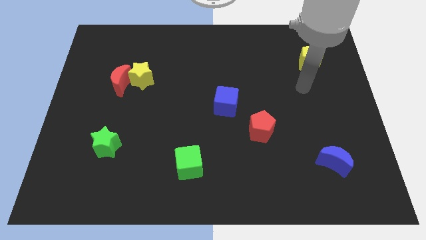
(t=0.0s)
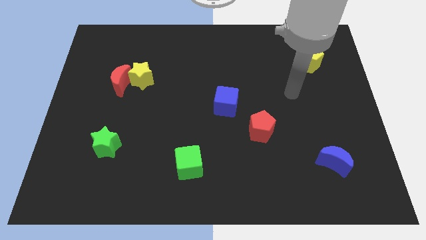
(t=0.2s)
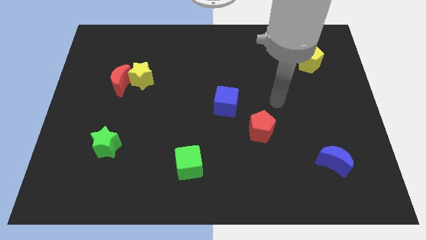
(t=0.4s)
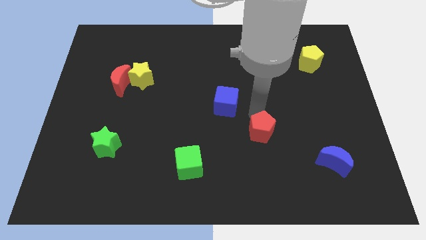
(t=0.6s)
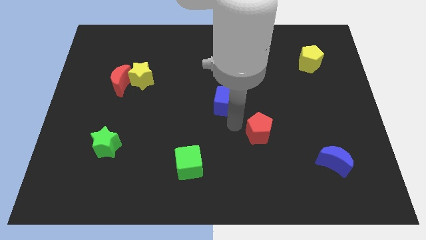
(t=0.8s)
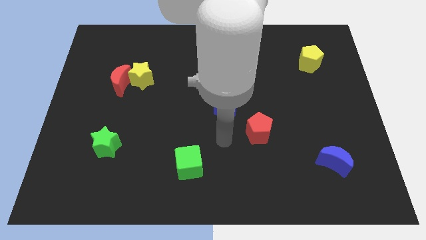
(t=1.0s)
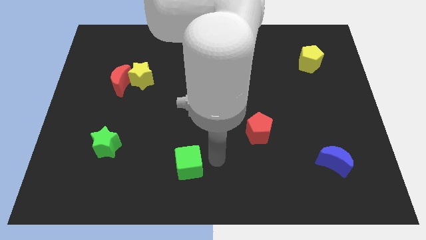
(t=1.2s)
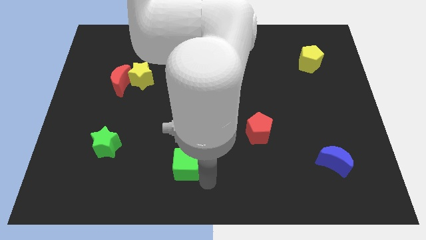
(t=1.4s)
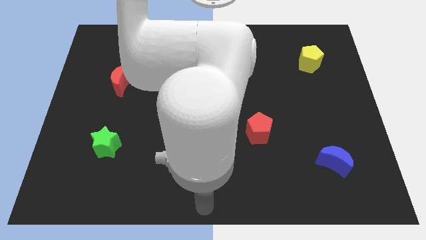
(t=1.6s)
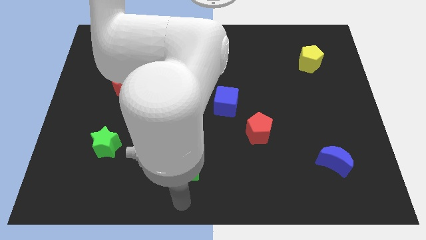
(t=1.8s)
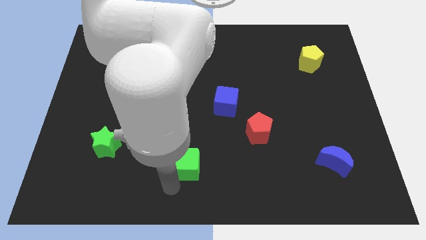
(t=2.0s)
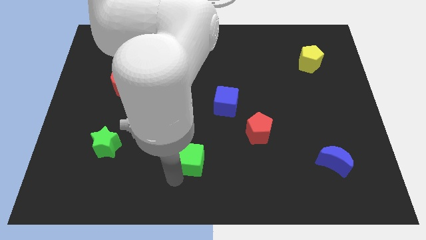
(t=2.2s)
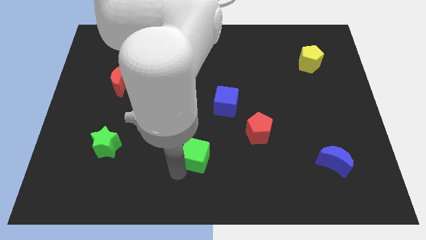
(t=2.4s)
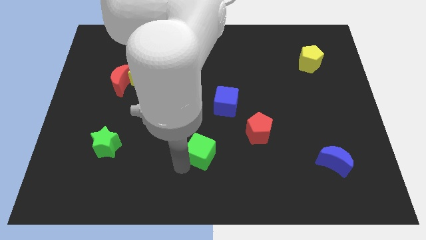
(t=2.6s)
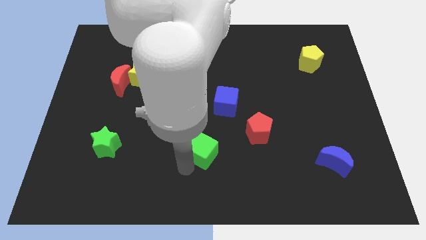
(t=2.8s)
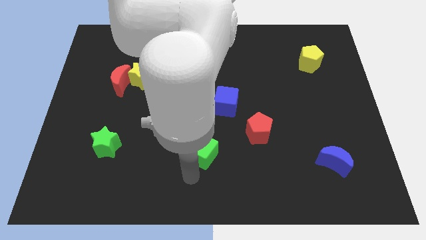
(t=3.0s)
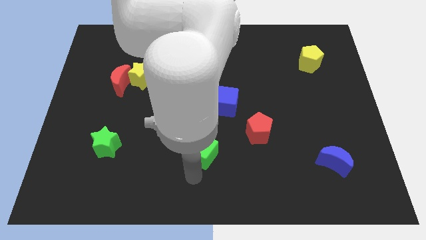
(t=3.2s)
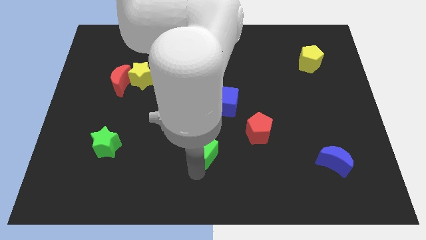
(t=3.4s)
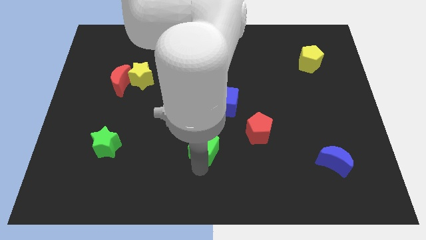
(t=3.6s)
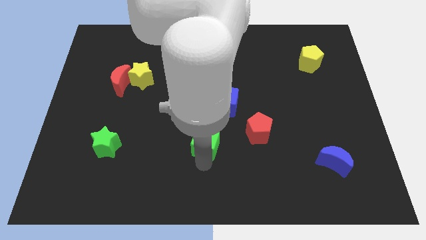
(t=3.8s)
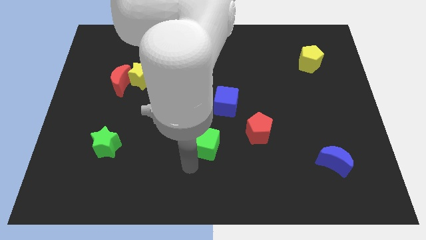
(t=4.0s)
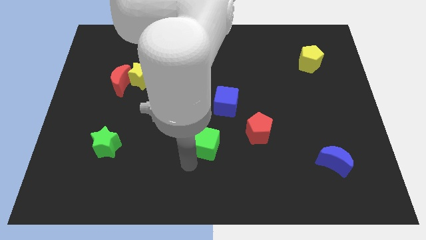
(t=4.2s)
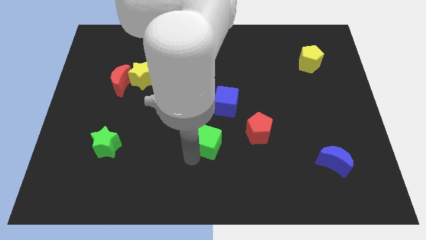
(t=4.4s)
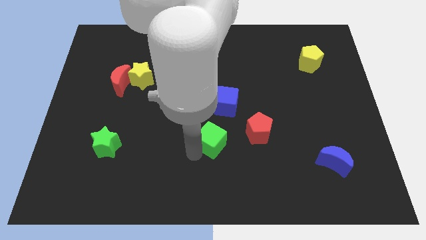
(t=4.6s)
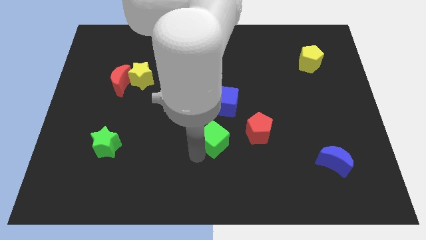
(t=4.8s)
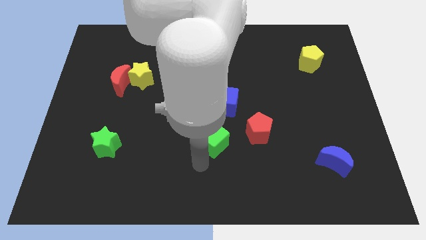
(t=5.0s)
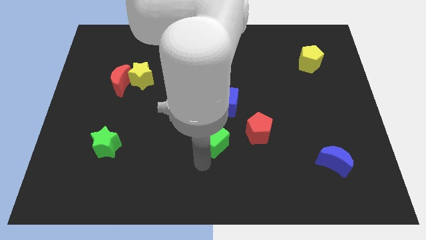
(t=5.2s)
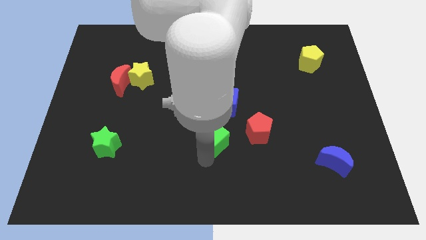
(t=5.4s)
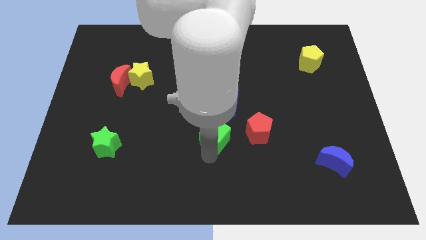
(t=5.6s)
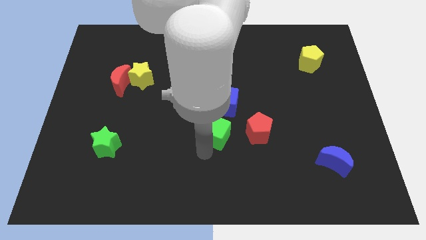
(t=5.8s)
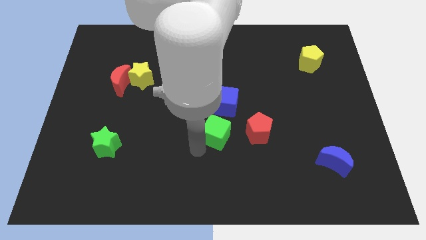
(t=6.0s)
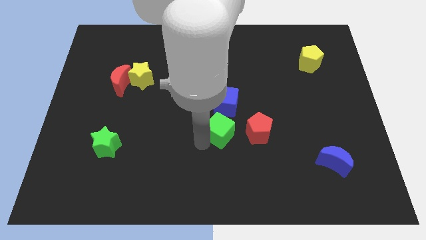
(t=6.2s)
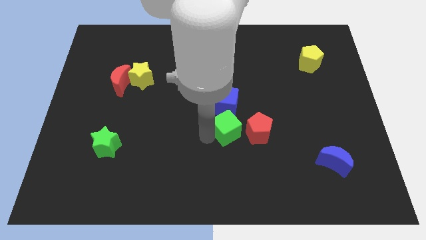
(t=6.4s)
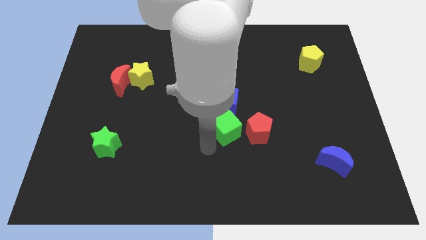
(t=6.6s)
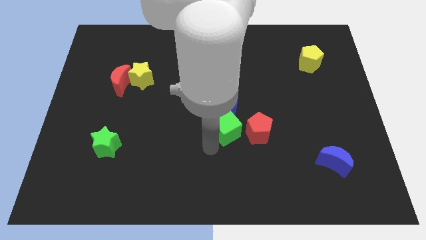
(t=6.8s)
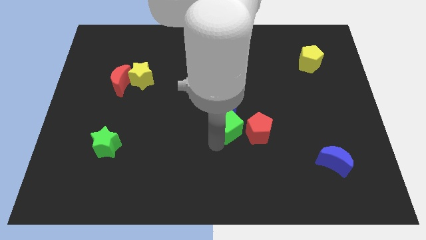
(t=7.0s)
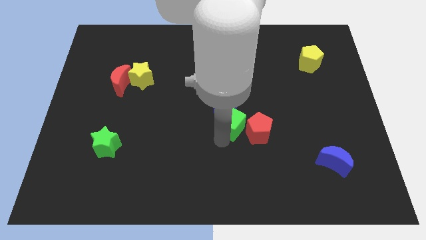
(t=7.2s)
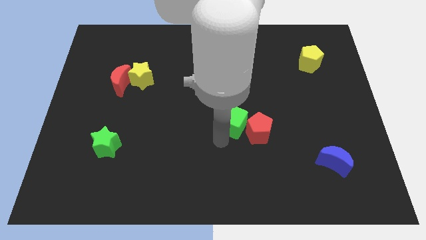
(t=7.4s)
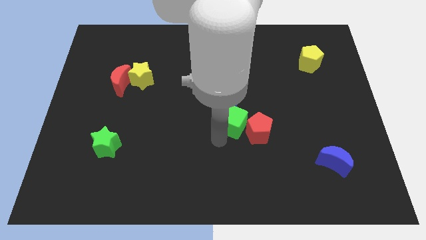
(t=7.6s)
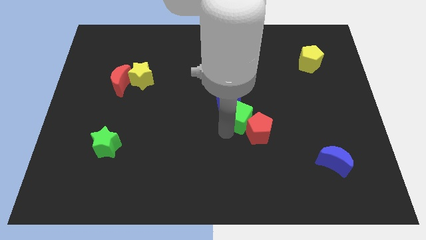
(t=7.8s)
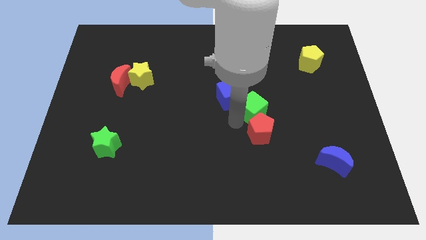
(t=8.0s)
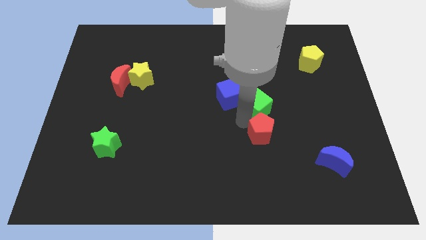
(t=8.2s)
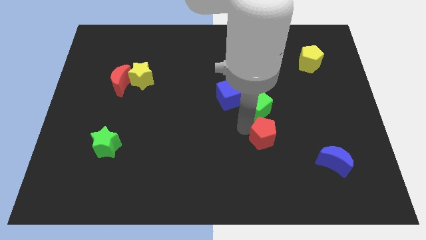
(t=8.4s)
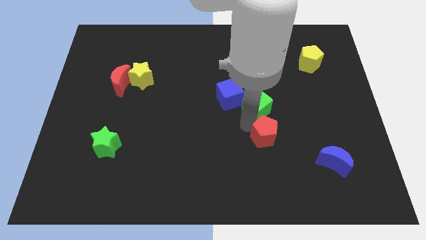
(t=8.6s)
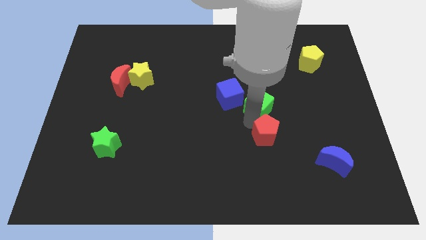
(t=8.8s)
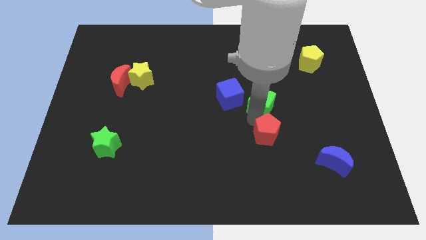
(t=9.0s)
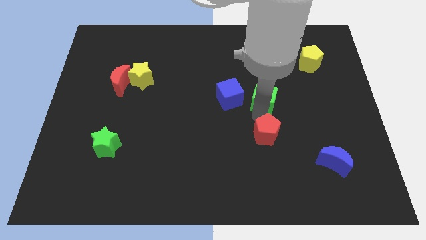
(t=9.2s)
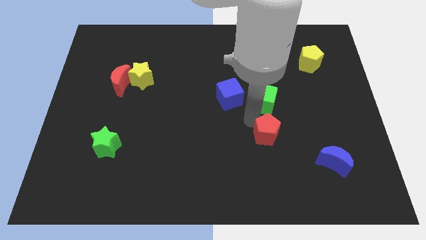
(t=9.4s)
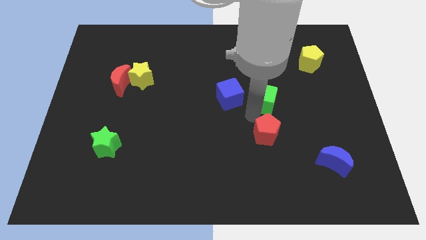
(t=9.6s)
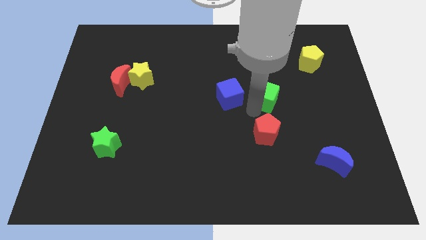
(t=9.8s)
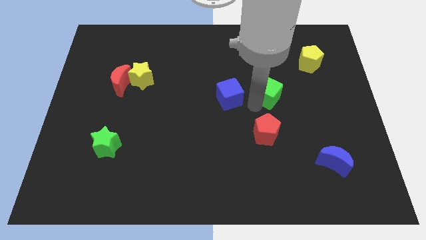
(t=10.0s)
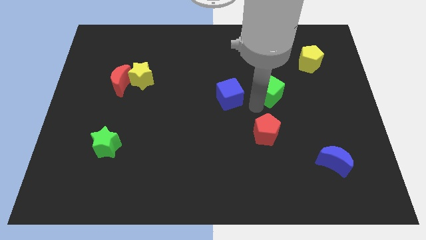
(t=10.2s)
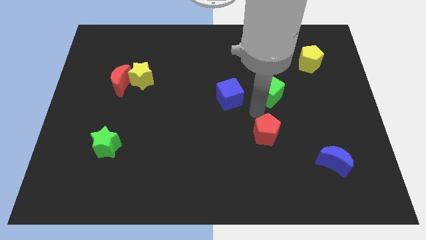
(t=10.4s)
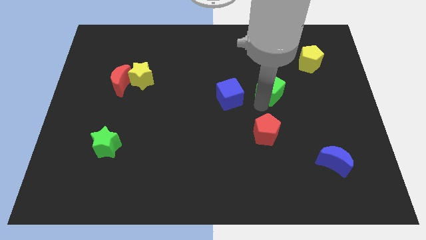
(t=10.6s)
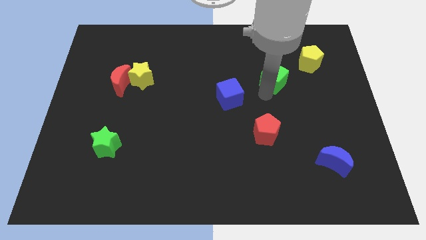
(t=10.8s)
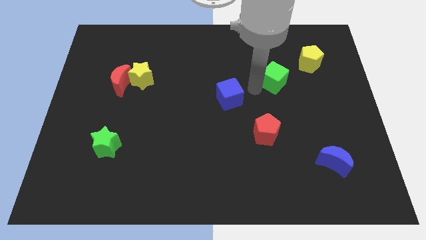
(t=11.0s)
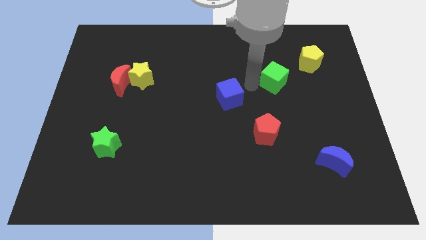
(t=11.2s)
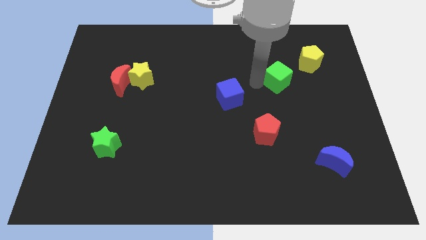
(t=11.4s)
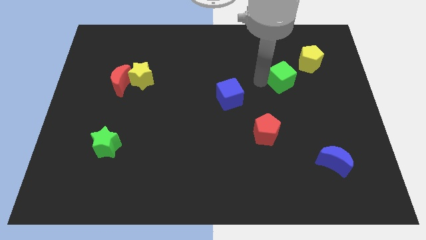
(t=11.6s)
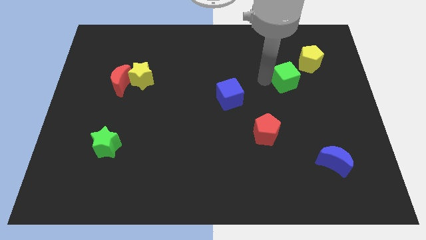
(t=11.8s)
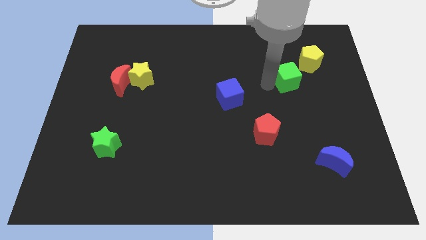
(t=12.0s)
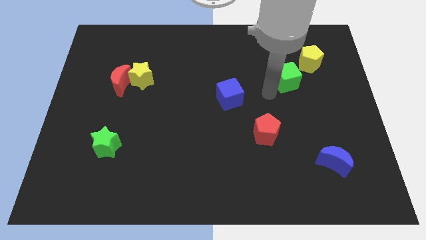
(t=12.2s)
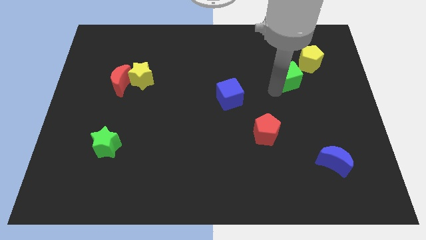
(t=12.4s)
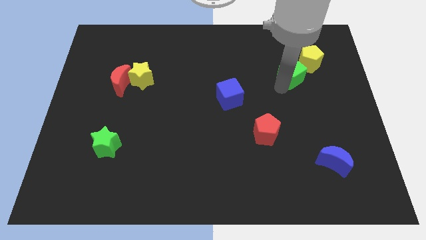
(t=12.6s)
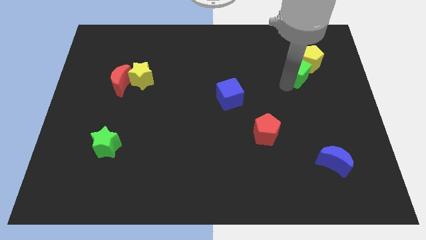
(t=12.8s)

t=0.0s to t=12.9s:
move the green cube to the yellow pentagon

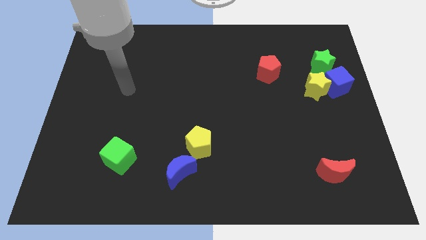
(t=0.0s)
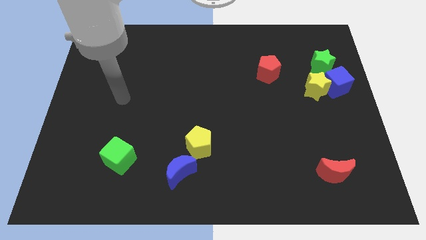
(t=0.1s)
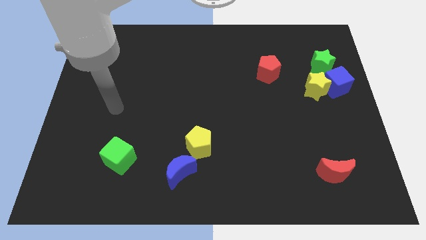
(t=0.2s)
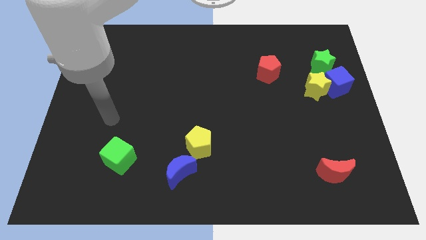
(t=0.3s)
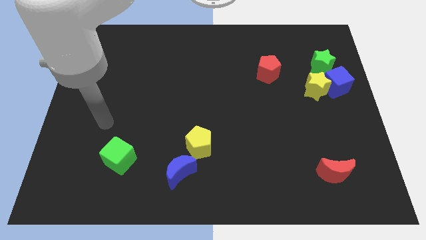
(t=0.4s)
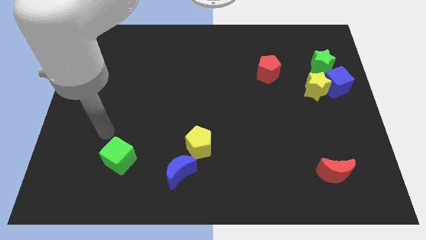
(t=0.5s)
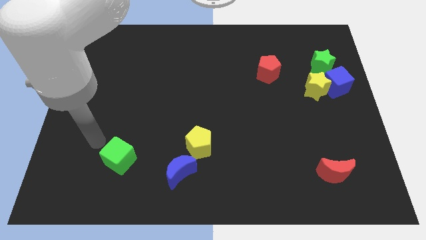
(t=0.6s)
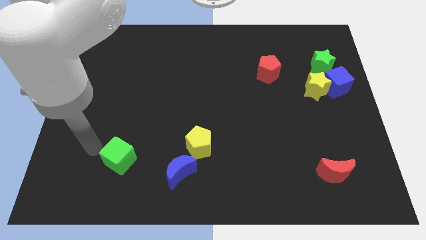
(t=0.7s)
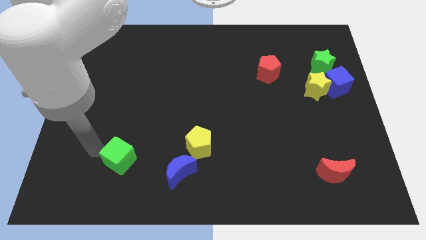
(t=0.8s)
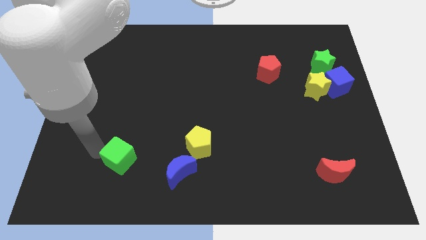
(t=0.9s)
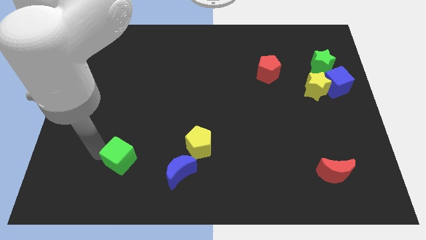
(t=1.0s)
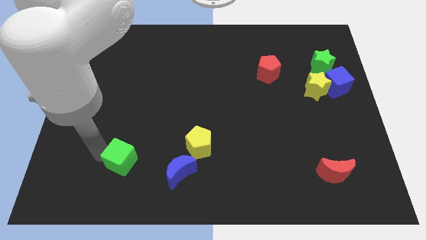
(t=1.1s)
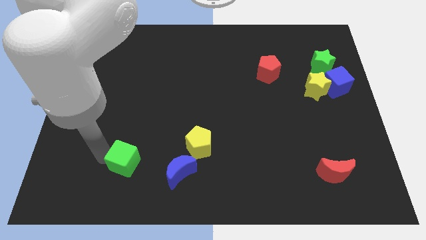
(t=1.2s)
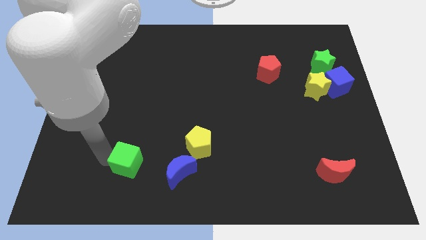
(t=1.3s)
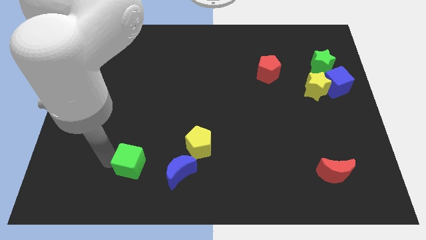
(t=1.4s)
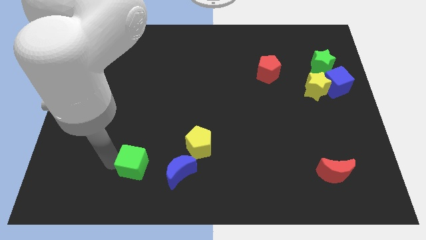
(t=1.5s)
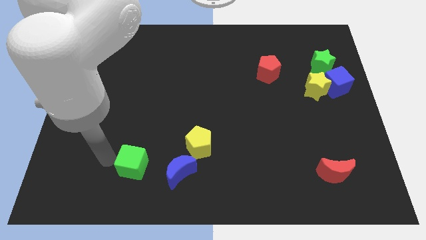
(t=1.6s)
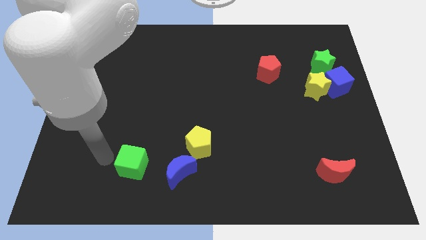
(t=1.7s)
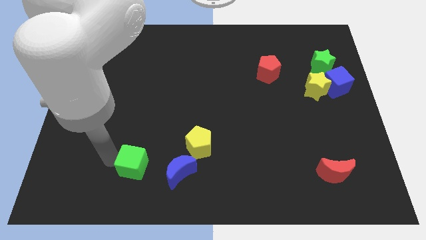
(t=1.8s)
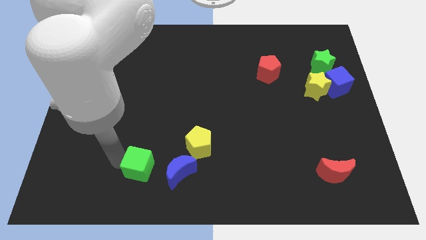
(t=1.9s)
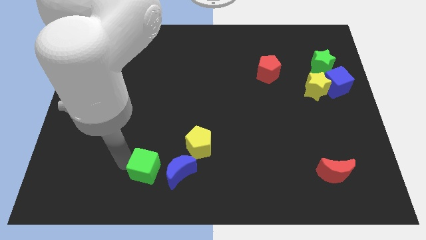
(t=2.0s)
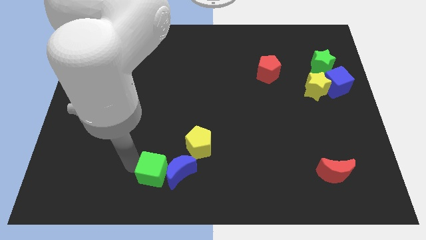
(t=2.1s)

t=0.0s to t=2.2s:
put the green cube to the blue moon
